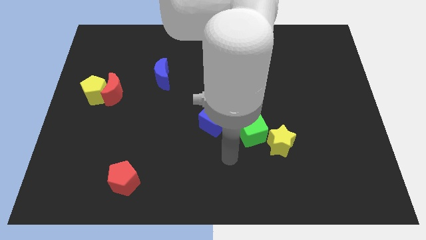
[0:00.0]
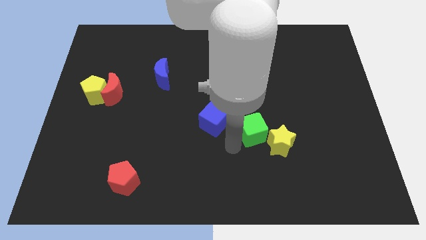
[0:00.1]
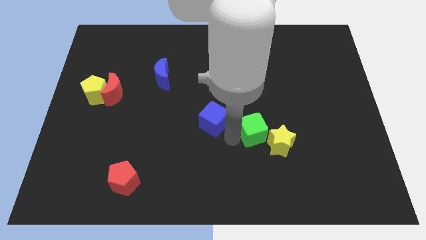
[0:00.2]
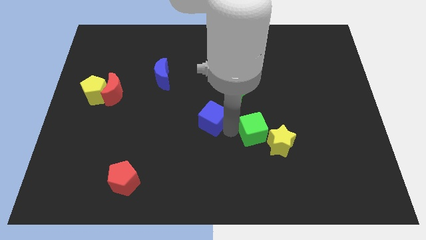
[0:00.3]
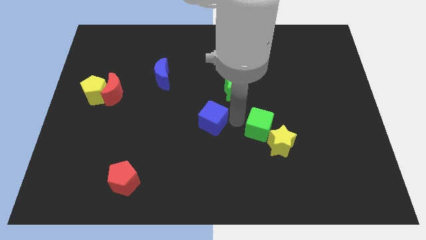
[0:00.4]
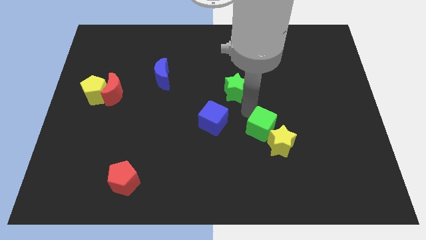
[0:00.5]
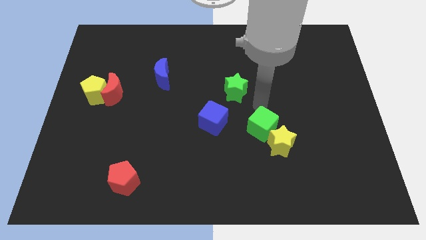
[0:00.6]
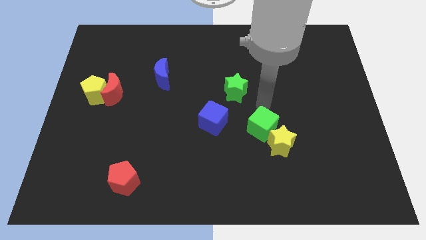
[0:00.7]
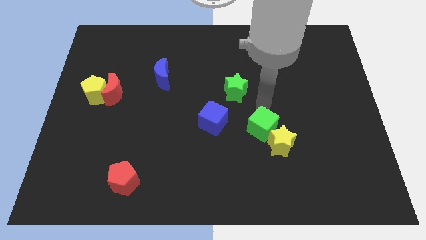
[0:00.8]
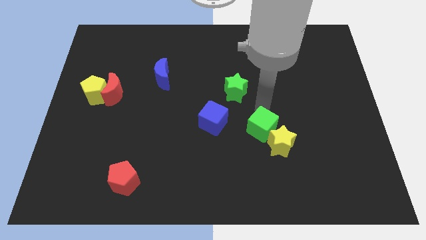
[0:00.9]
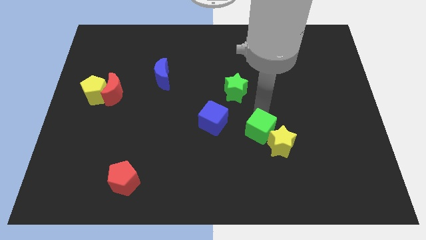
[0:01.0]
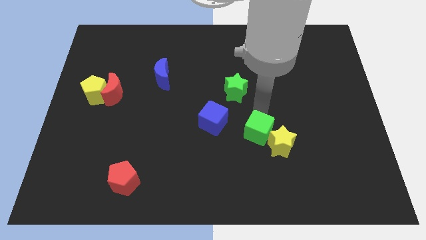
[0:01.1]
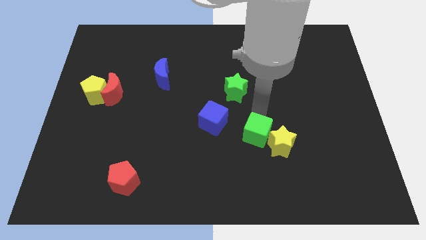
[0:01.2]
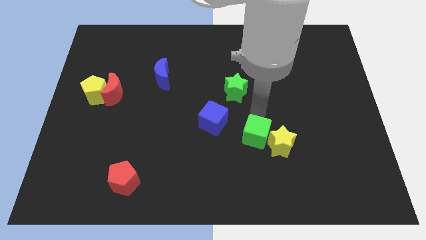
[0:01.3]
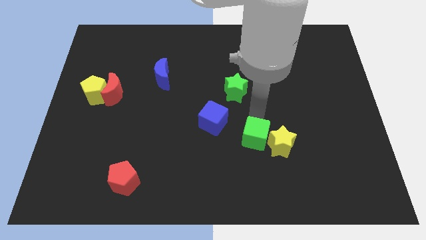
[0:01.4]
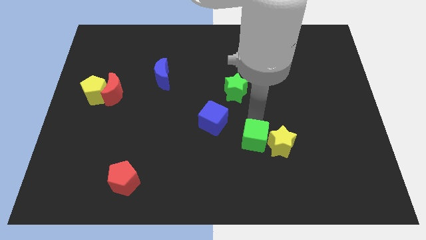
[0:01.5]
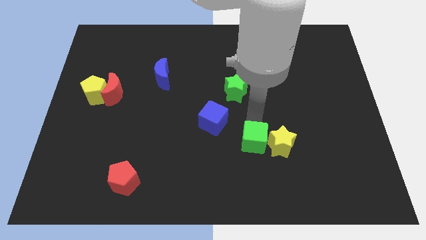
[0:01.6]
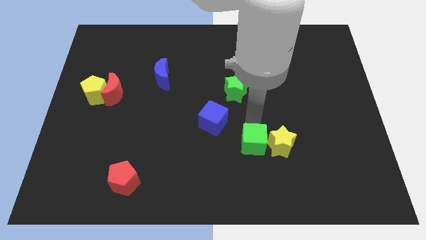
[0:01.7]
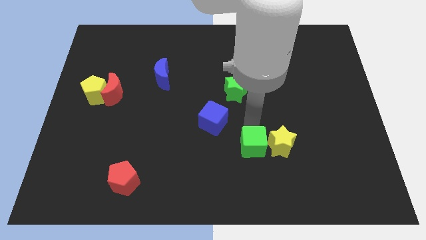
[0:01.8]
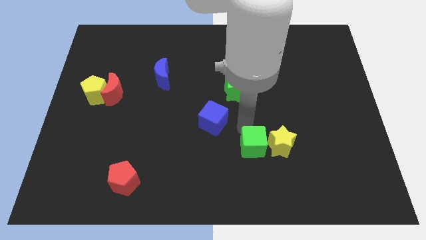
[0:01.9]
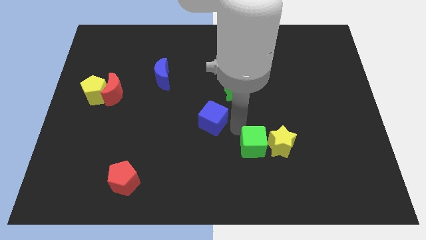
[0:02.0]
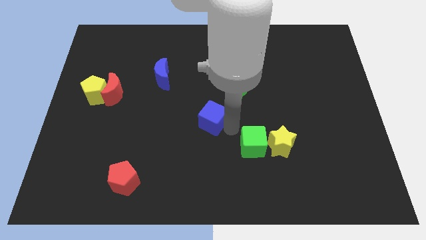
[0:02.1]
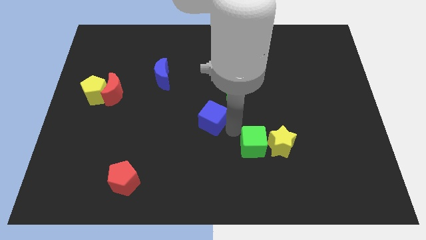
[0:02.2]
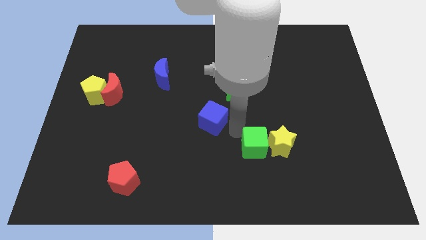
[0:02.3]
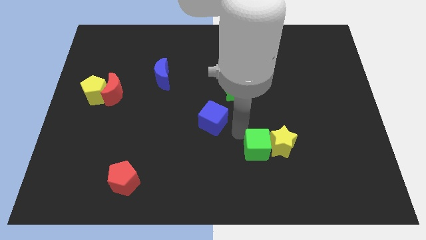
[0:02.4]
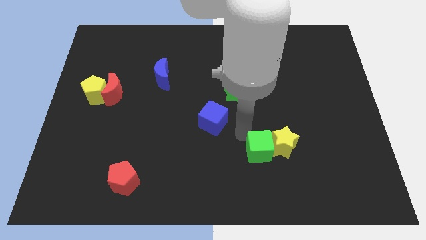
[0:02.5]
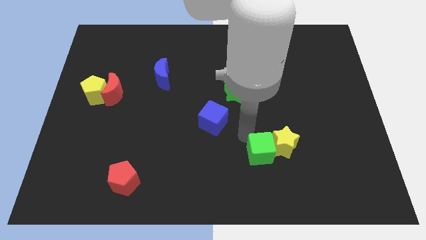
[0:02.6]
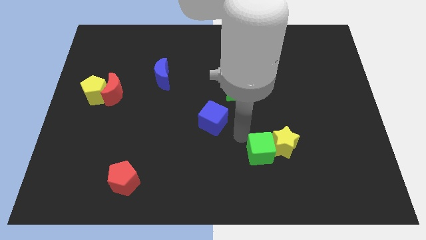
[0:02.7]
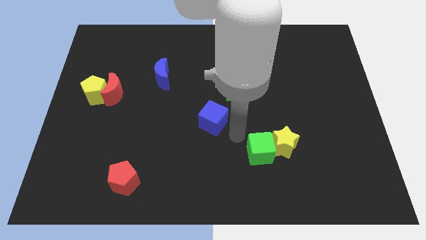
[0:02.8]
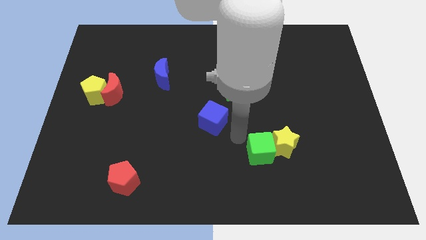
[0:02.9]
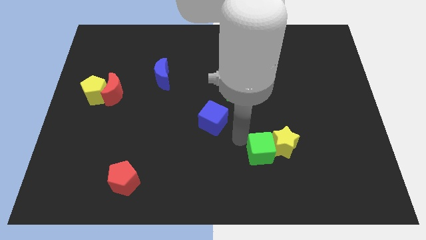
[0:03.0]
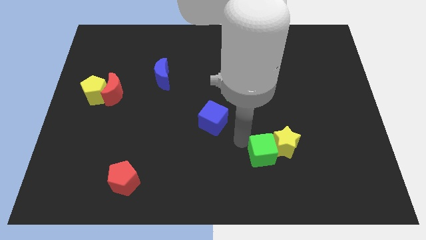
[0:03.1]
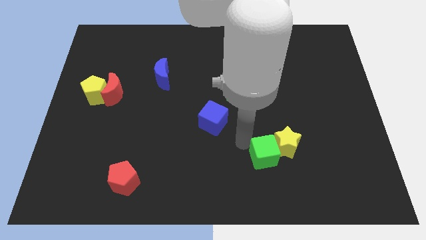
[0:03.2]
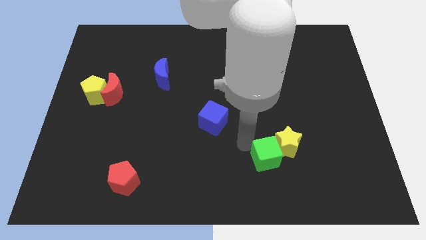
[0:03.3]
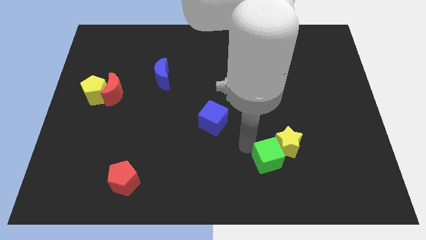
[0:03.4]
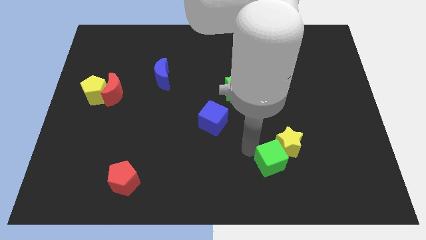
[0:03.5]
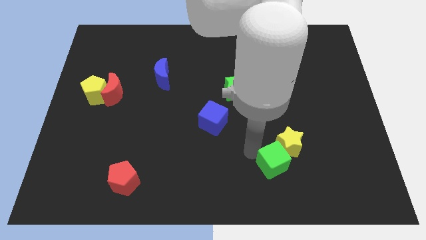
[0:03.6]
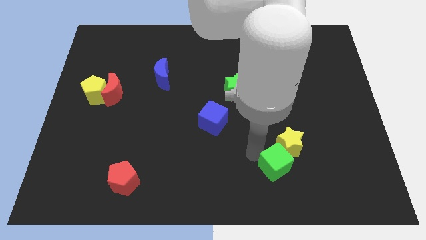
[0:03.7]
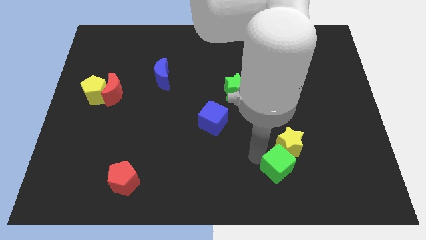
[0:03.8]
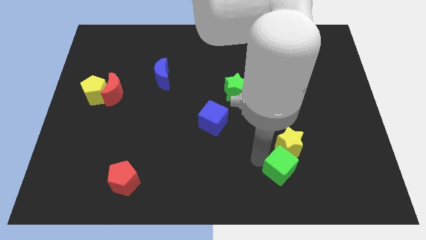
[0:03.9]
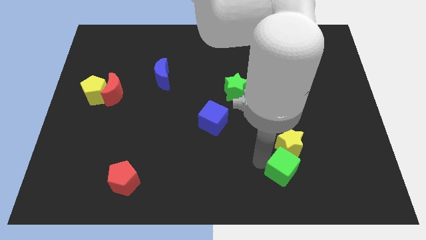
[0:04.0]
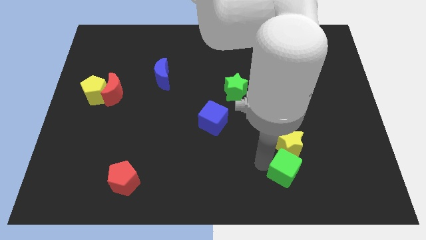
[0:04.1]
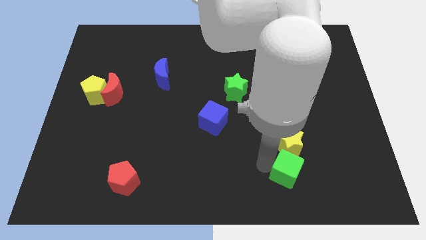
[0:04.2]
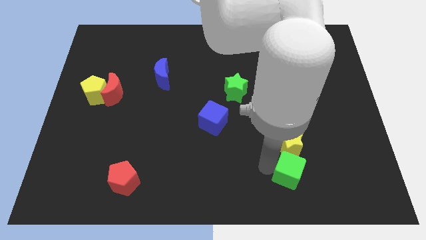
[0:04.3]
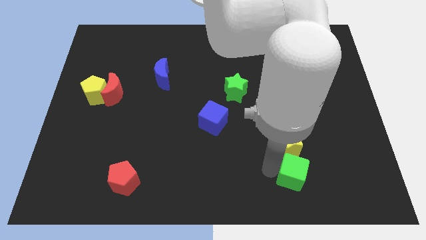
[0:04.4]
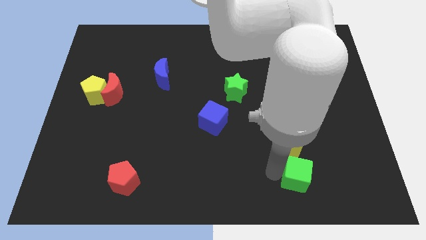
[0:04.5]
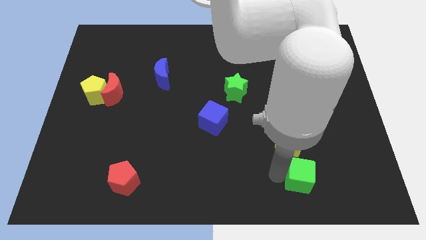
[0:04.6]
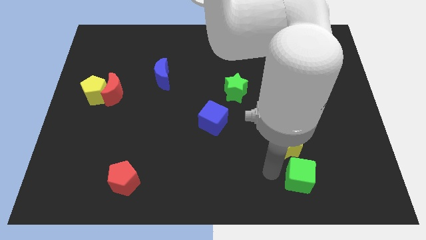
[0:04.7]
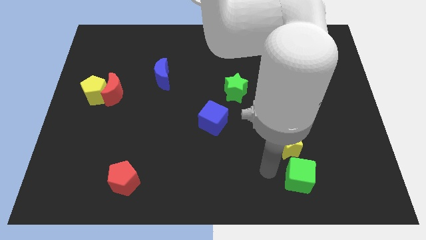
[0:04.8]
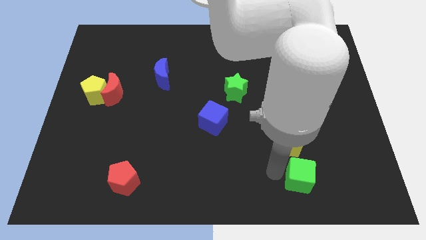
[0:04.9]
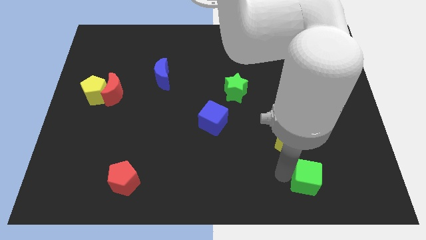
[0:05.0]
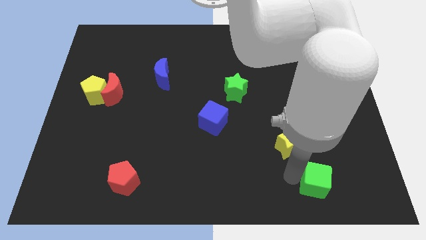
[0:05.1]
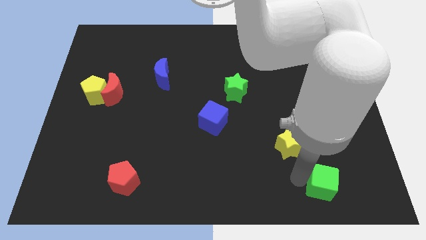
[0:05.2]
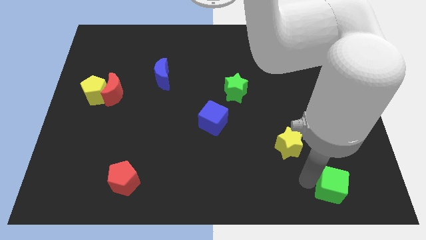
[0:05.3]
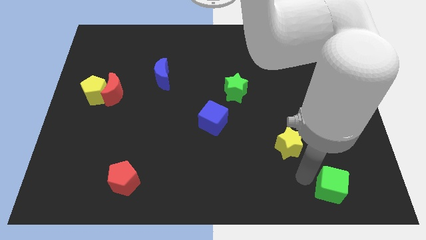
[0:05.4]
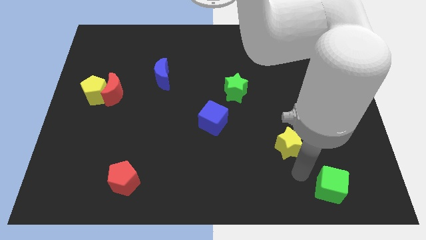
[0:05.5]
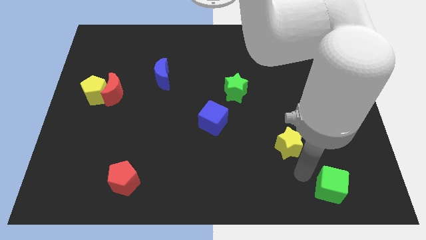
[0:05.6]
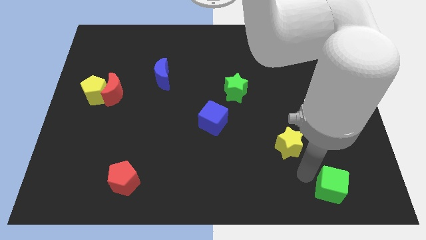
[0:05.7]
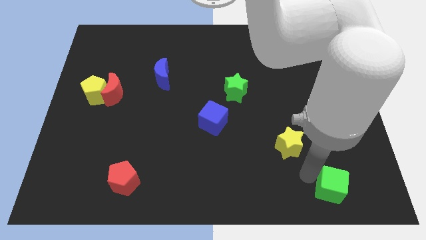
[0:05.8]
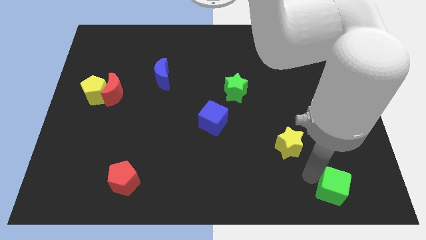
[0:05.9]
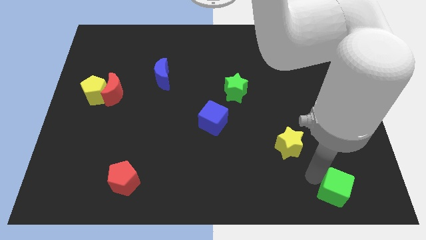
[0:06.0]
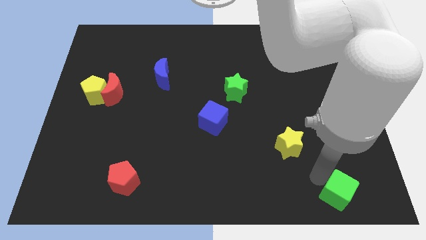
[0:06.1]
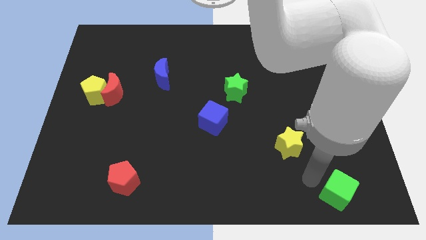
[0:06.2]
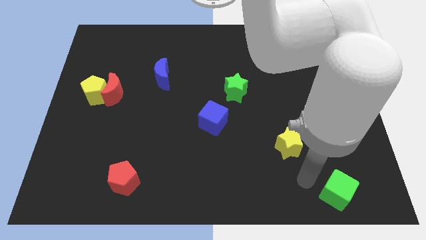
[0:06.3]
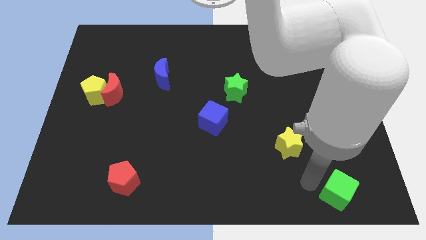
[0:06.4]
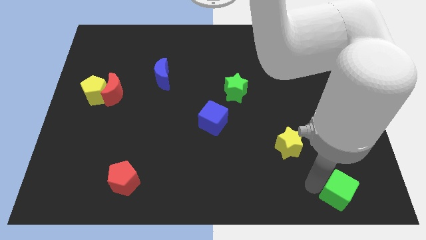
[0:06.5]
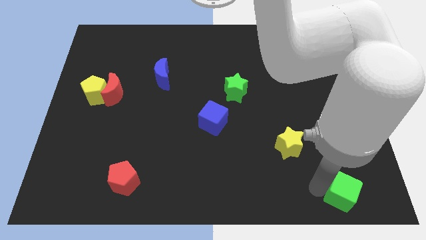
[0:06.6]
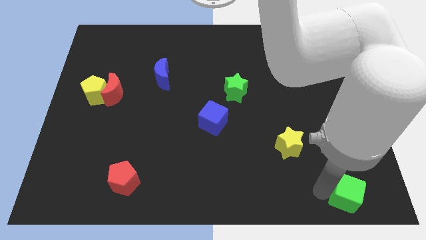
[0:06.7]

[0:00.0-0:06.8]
move the green cube to the bottom right of the board
